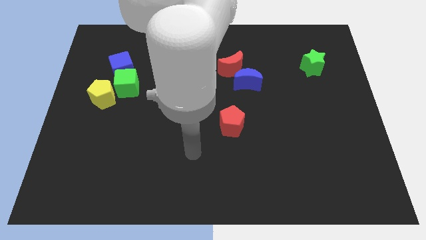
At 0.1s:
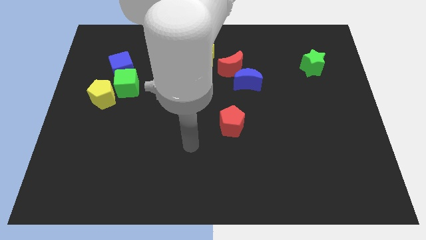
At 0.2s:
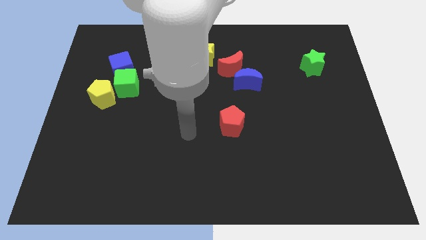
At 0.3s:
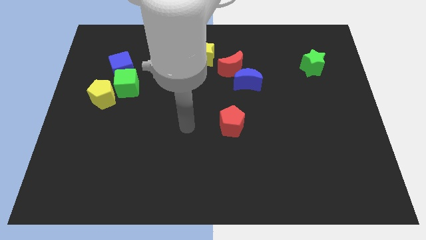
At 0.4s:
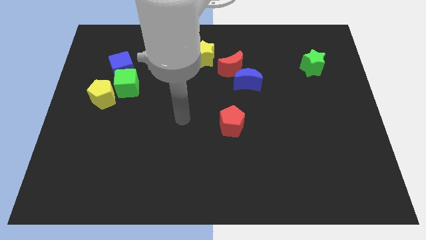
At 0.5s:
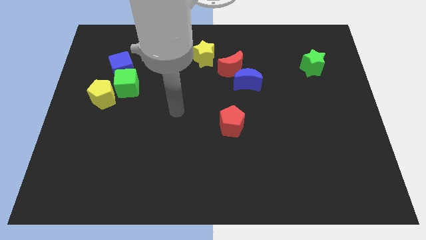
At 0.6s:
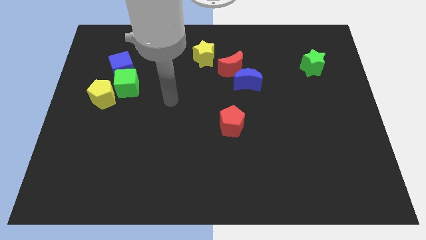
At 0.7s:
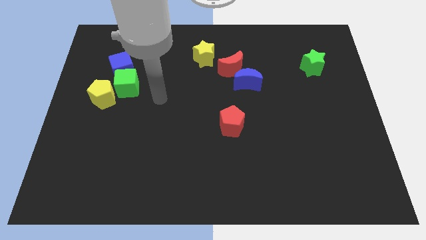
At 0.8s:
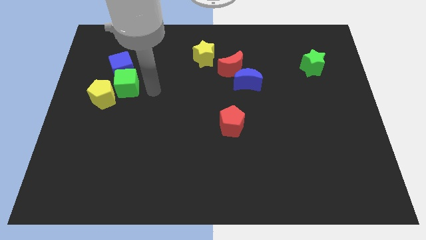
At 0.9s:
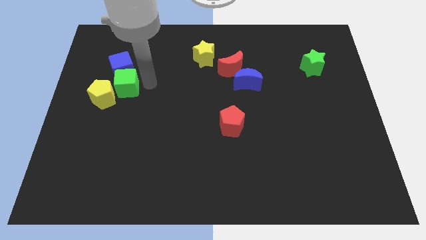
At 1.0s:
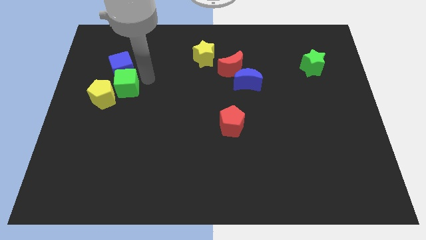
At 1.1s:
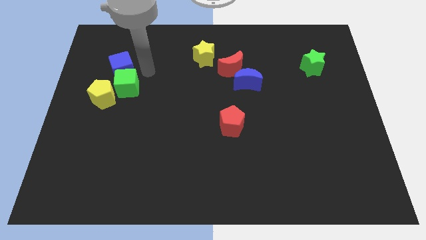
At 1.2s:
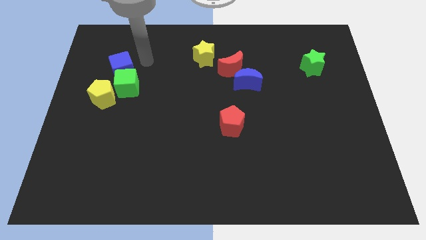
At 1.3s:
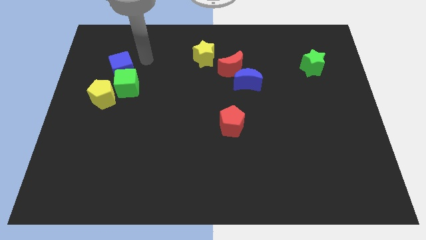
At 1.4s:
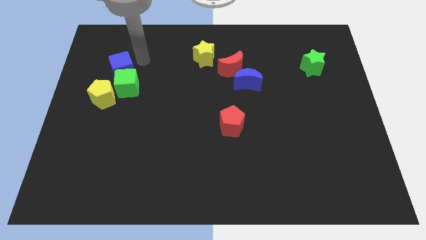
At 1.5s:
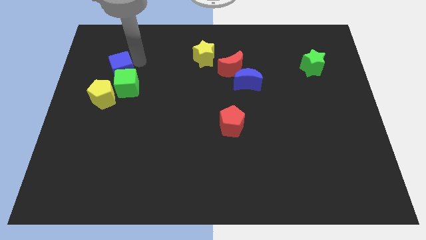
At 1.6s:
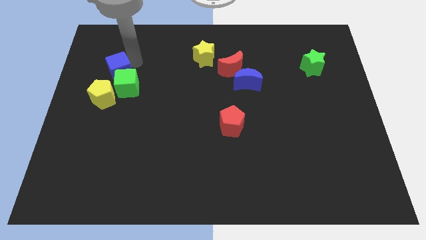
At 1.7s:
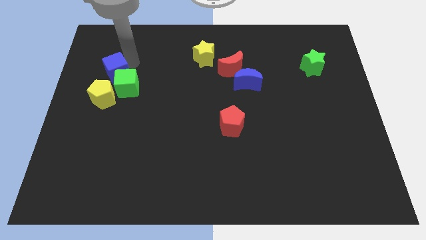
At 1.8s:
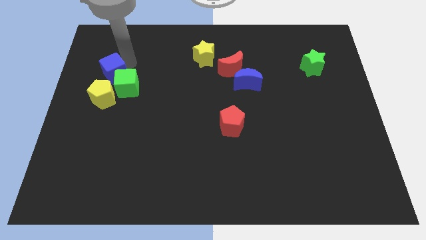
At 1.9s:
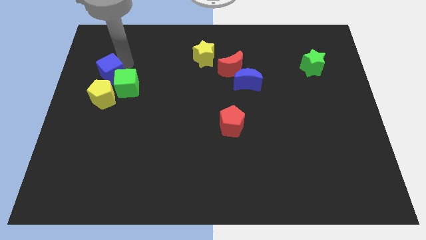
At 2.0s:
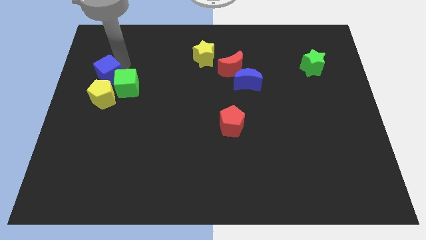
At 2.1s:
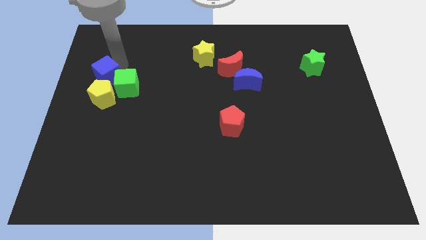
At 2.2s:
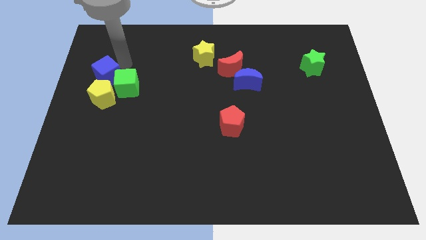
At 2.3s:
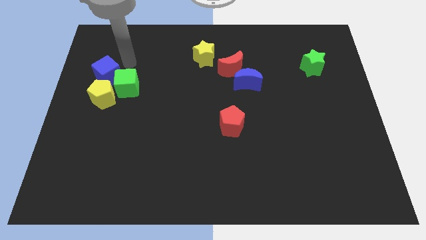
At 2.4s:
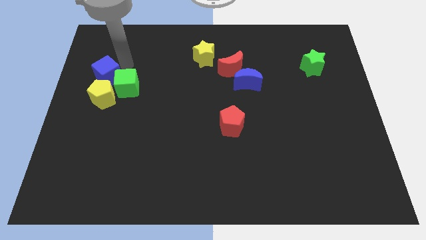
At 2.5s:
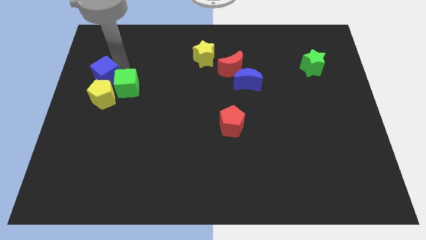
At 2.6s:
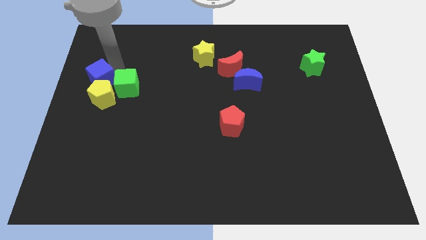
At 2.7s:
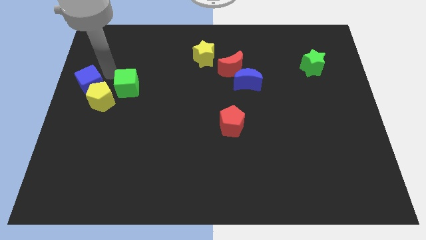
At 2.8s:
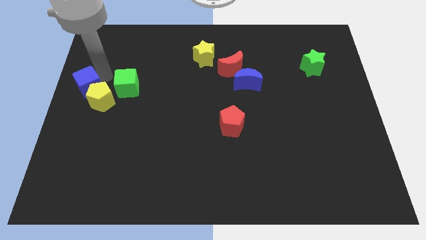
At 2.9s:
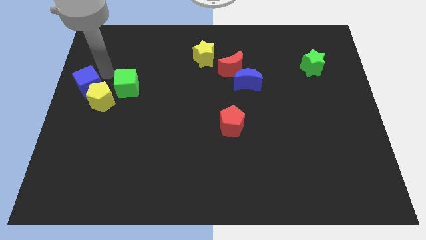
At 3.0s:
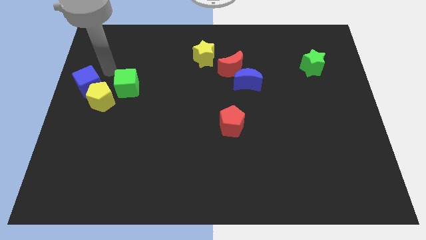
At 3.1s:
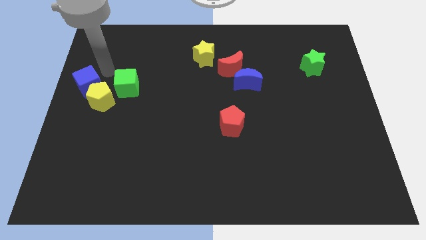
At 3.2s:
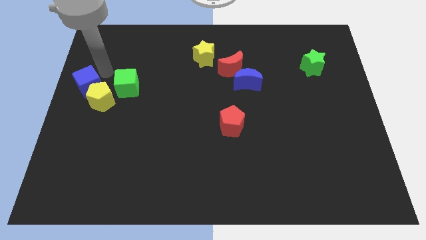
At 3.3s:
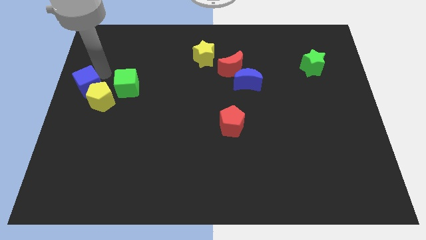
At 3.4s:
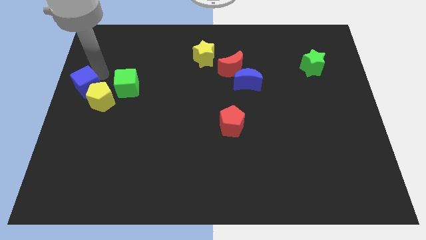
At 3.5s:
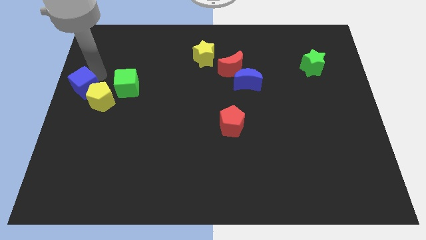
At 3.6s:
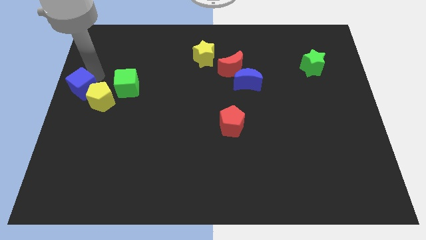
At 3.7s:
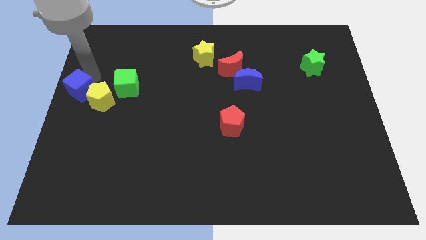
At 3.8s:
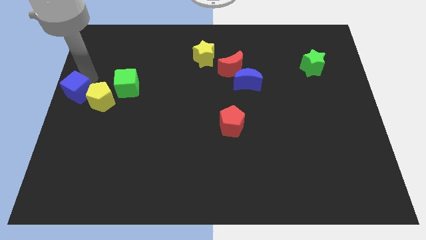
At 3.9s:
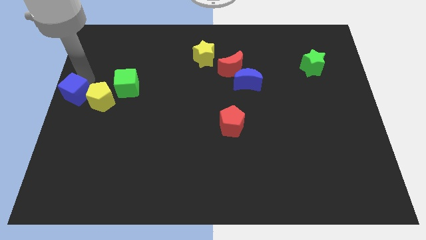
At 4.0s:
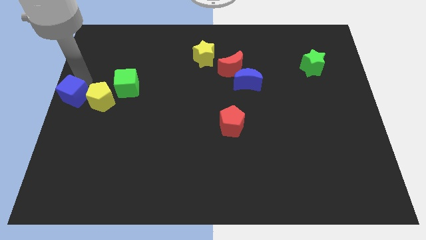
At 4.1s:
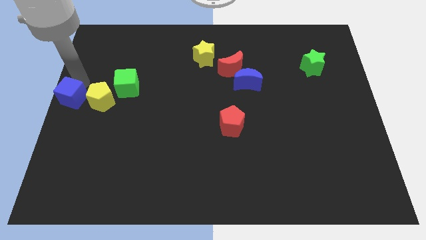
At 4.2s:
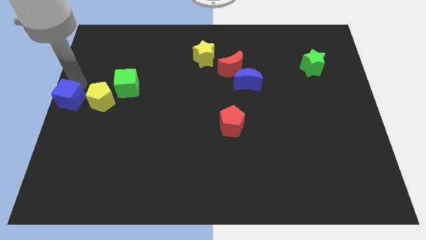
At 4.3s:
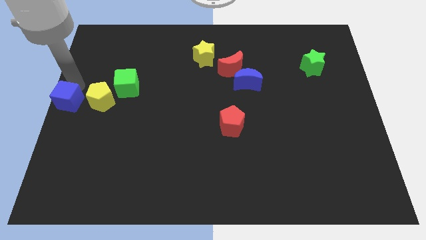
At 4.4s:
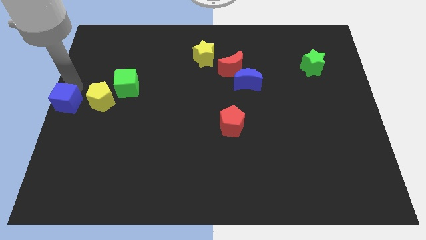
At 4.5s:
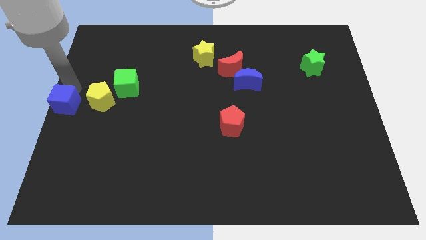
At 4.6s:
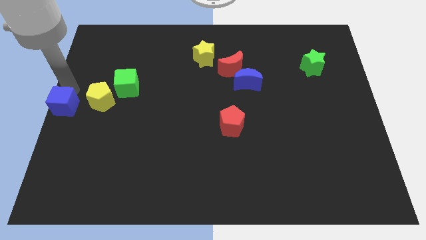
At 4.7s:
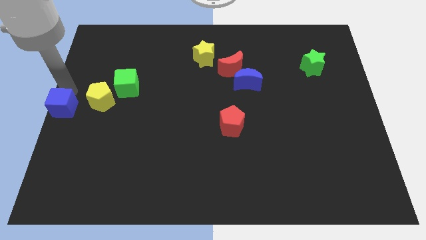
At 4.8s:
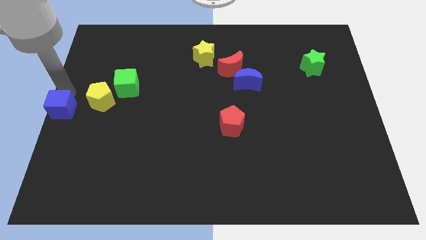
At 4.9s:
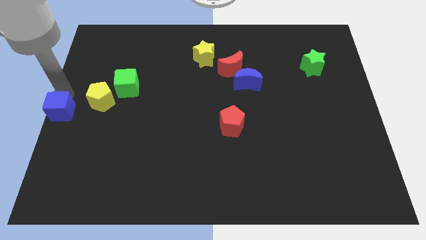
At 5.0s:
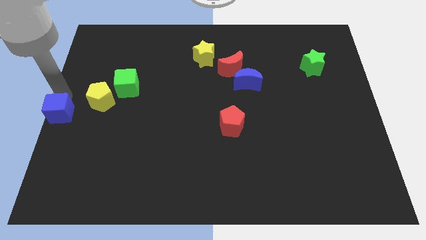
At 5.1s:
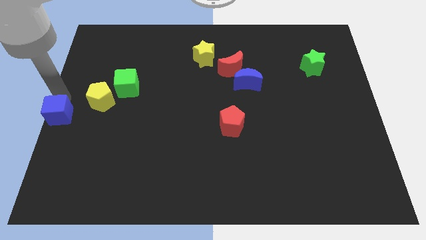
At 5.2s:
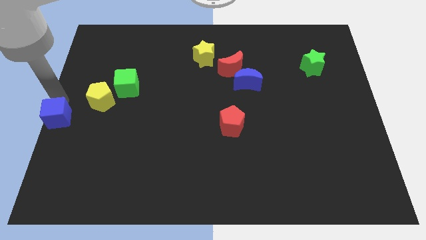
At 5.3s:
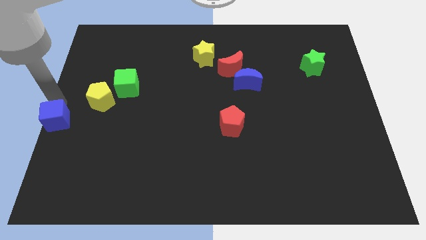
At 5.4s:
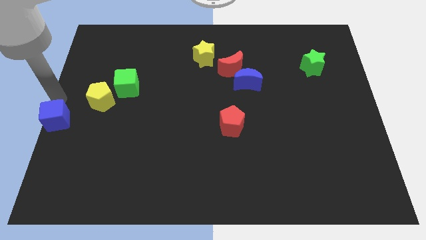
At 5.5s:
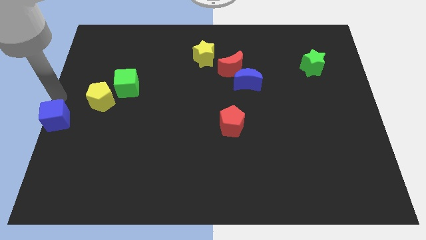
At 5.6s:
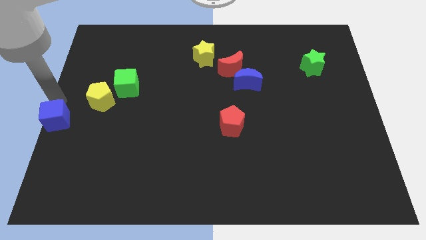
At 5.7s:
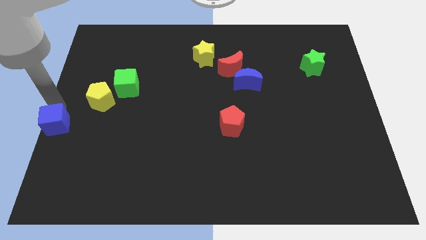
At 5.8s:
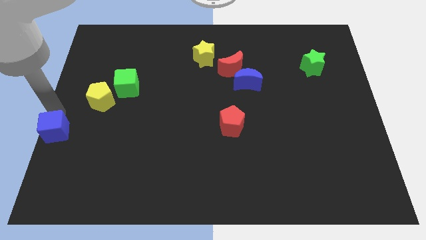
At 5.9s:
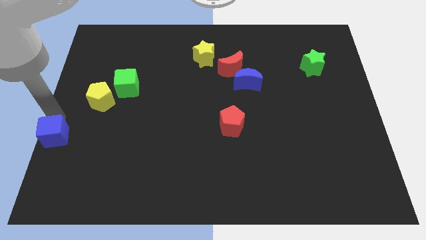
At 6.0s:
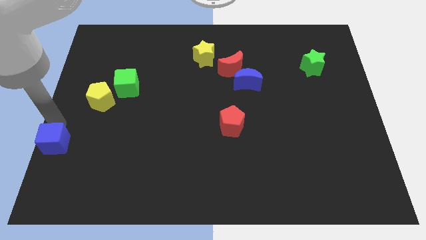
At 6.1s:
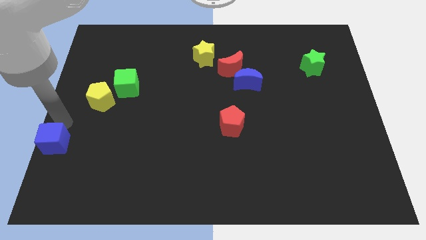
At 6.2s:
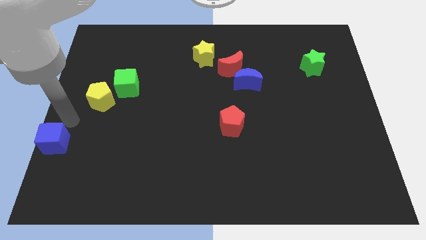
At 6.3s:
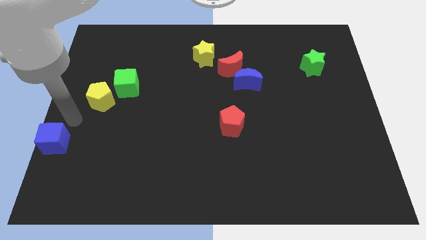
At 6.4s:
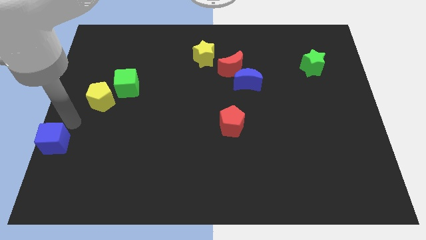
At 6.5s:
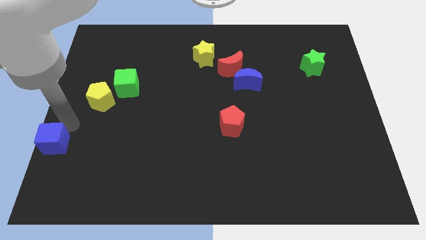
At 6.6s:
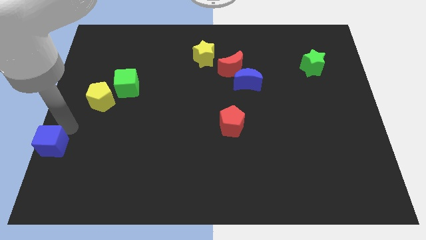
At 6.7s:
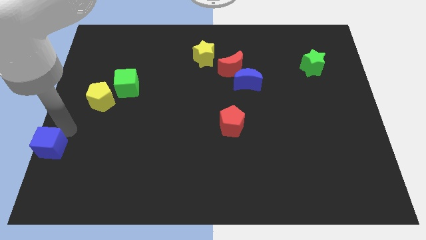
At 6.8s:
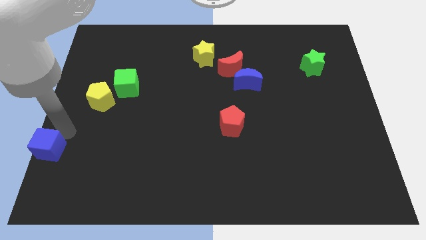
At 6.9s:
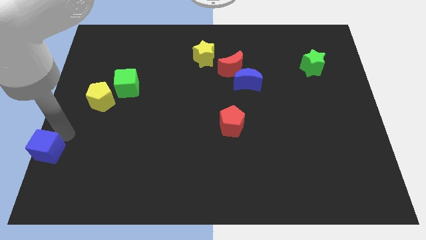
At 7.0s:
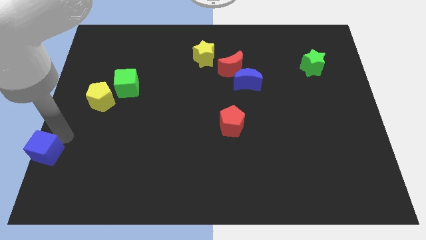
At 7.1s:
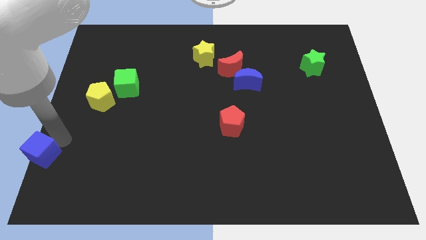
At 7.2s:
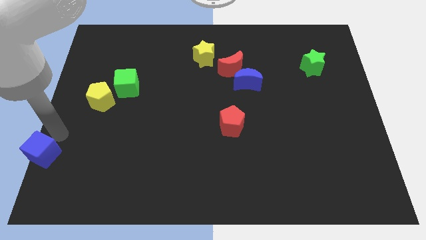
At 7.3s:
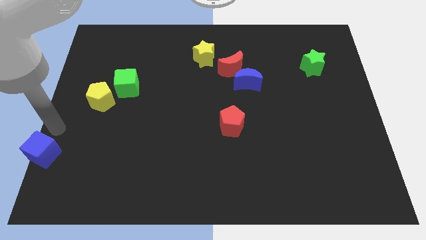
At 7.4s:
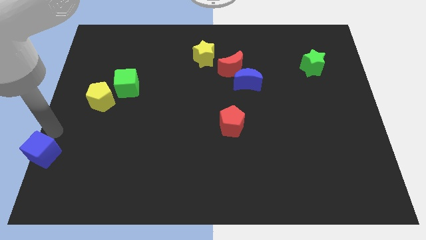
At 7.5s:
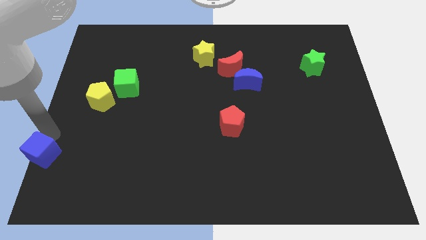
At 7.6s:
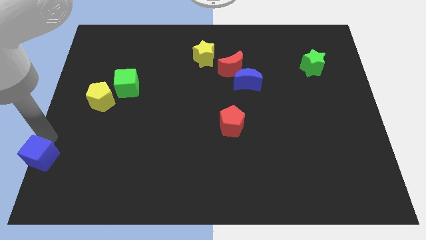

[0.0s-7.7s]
move the blue cube to the bottom left
